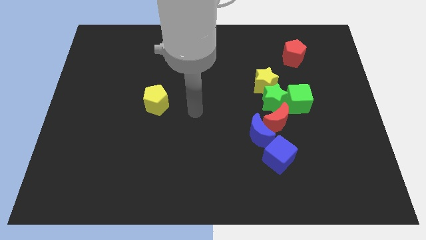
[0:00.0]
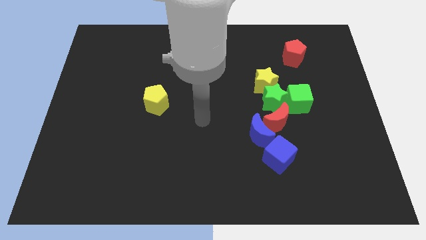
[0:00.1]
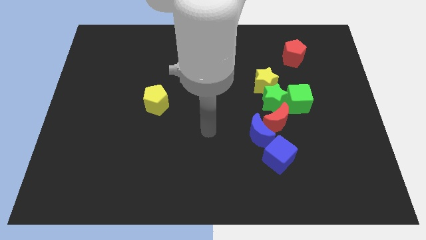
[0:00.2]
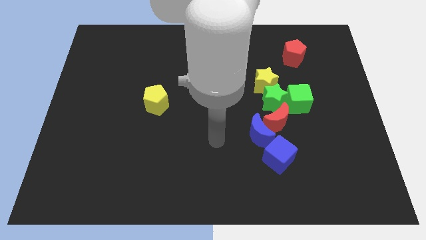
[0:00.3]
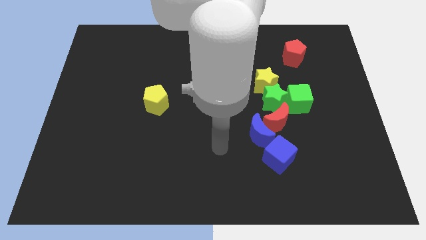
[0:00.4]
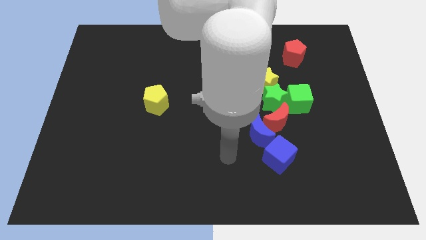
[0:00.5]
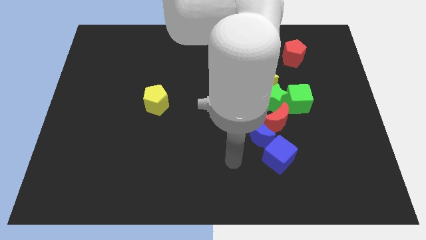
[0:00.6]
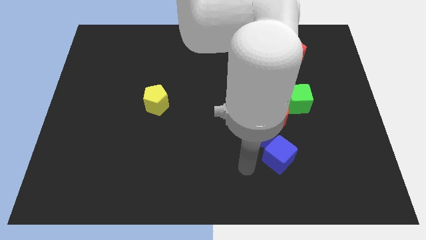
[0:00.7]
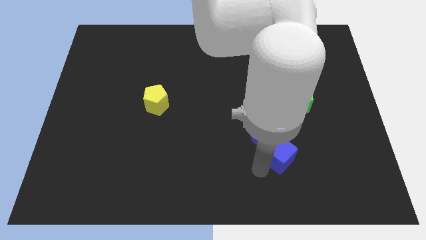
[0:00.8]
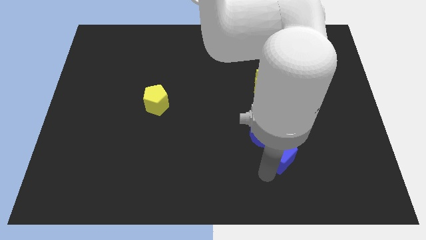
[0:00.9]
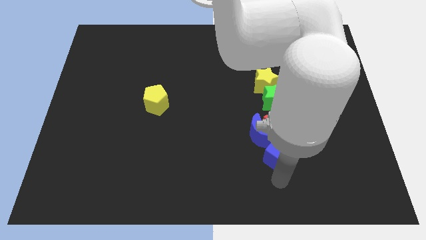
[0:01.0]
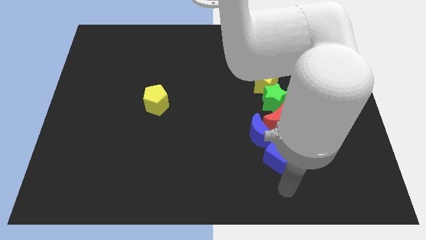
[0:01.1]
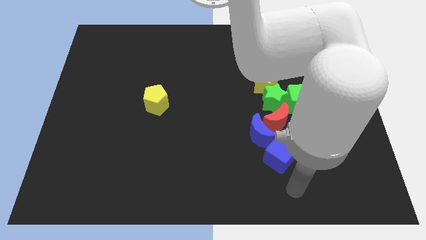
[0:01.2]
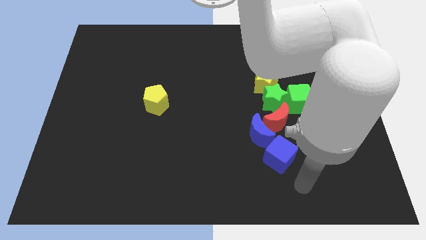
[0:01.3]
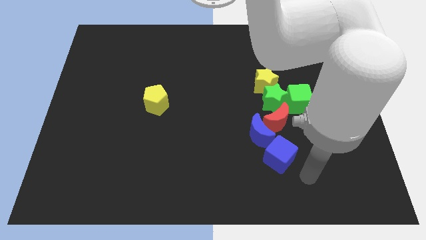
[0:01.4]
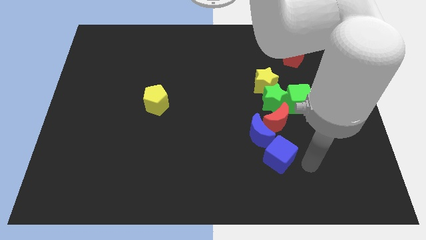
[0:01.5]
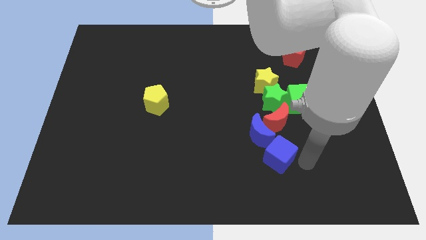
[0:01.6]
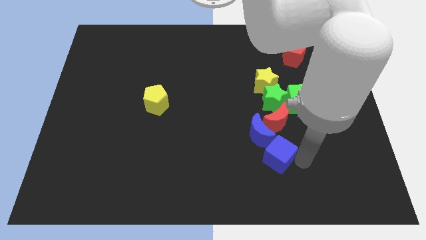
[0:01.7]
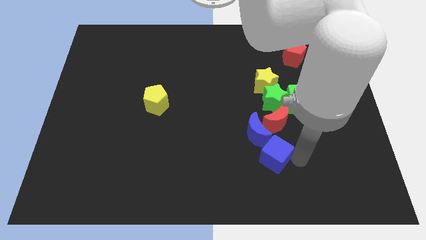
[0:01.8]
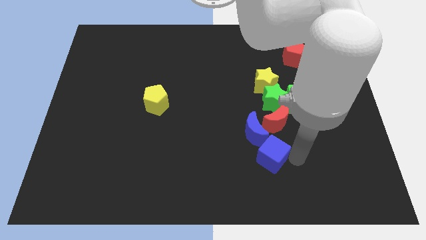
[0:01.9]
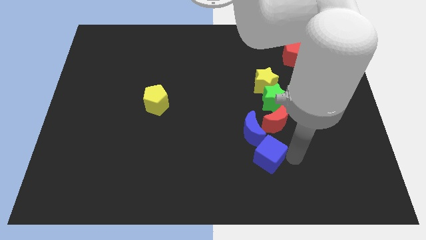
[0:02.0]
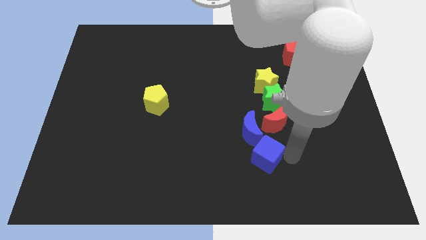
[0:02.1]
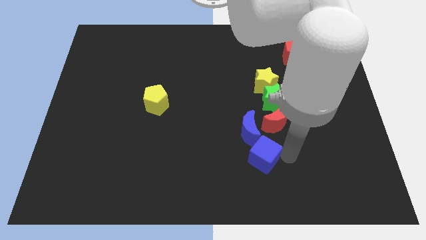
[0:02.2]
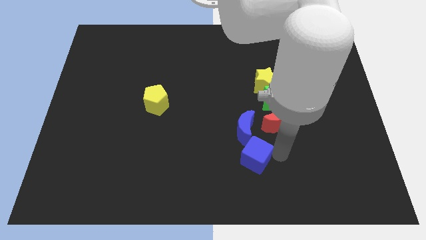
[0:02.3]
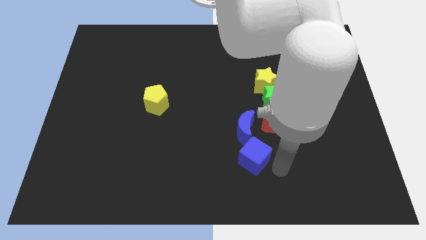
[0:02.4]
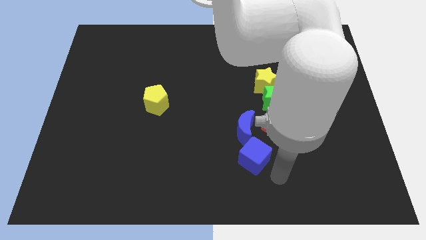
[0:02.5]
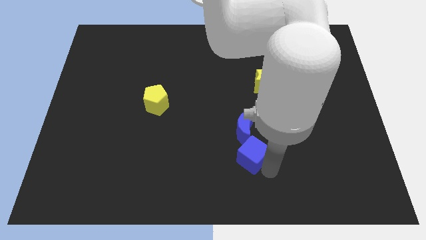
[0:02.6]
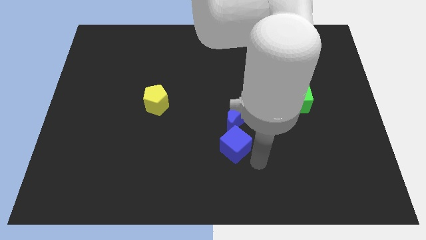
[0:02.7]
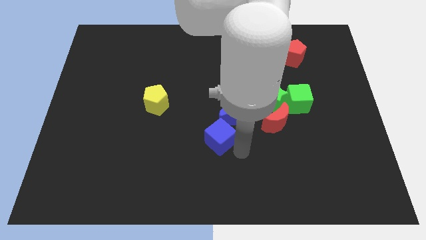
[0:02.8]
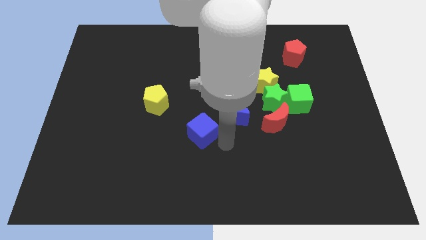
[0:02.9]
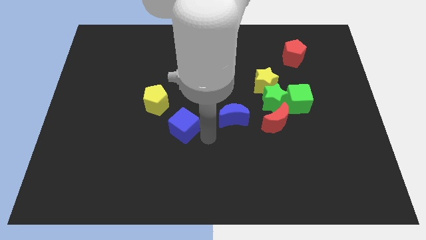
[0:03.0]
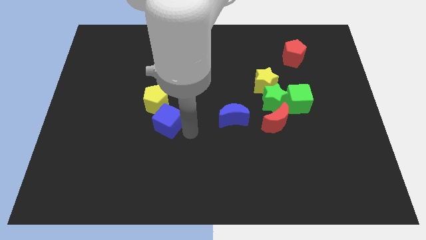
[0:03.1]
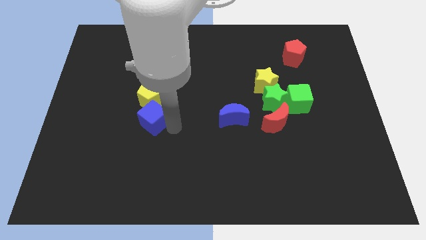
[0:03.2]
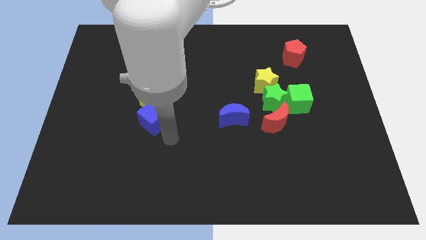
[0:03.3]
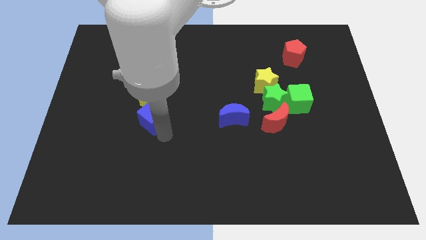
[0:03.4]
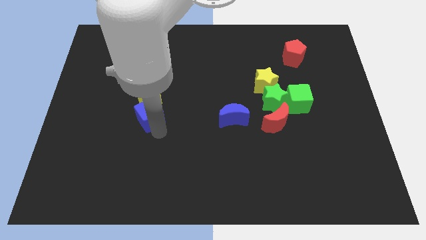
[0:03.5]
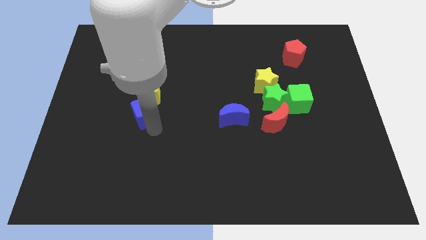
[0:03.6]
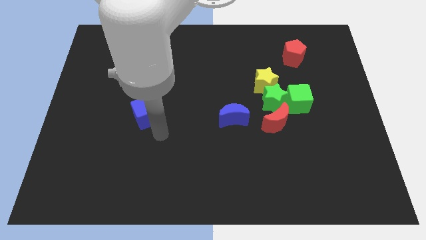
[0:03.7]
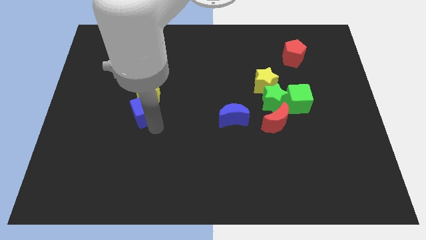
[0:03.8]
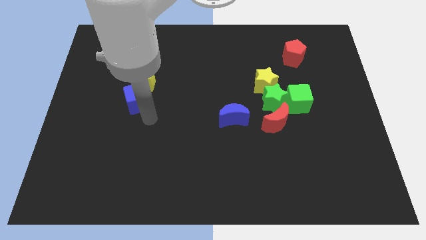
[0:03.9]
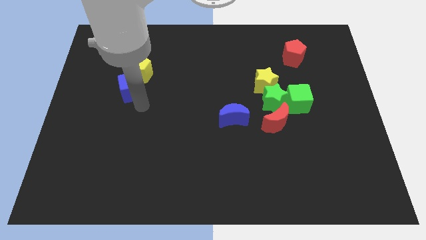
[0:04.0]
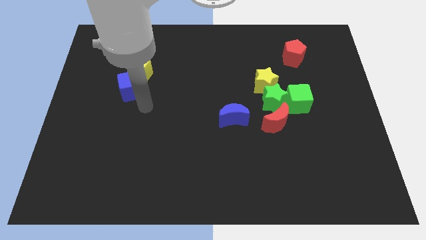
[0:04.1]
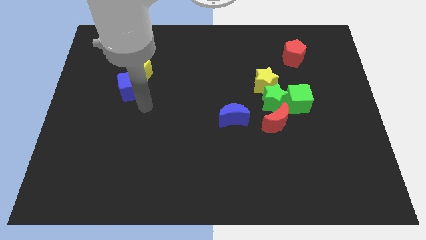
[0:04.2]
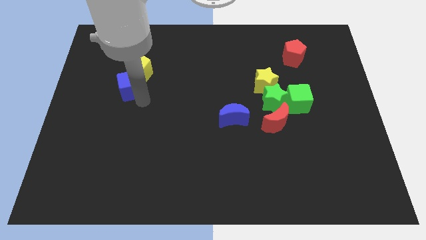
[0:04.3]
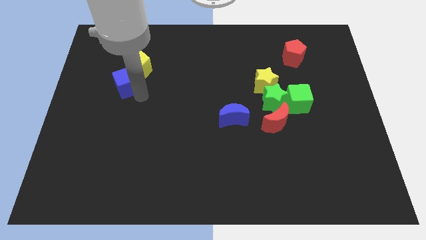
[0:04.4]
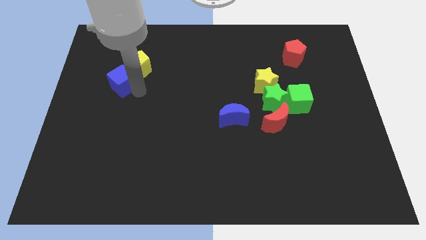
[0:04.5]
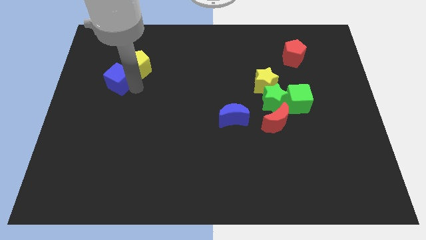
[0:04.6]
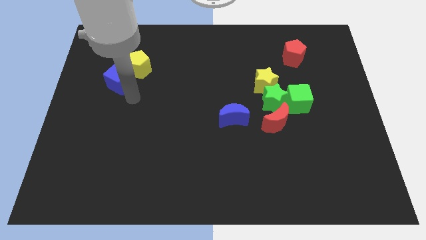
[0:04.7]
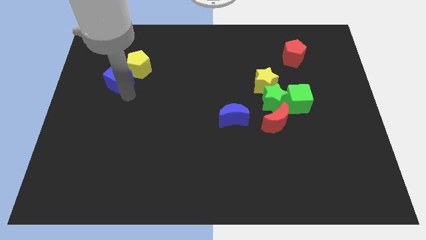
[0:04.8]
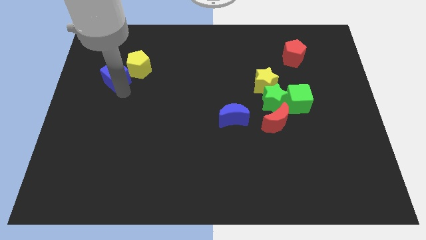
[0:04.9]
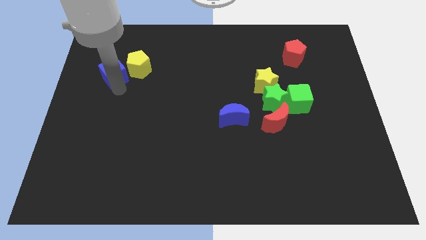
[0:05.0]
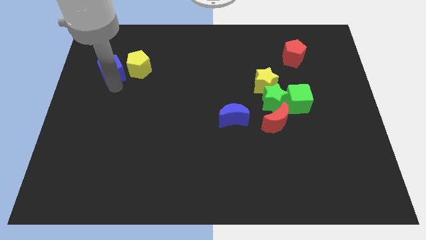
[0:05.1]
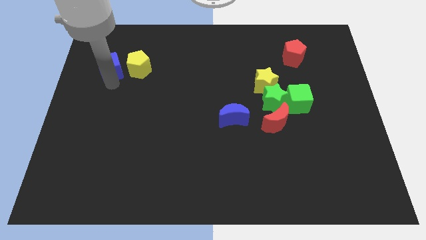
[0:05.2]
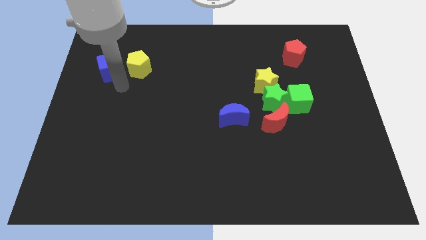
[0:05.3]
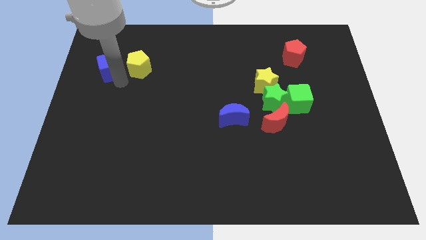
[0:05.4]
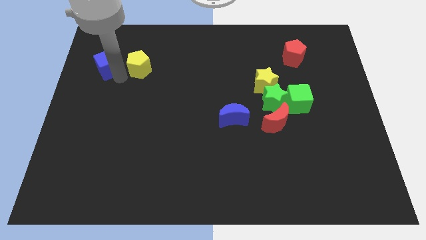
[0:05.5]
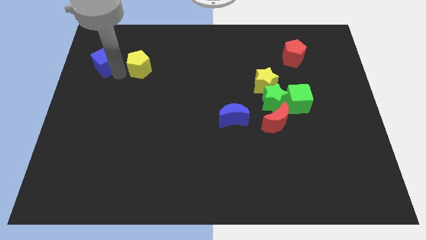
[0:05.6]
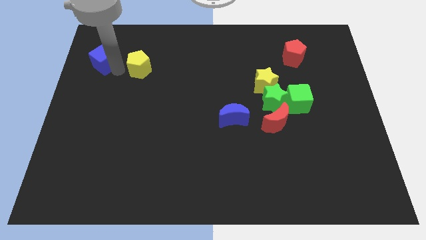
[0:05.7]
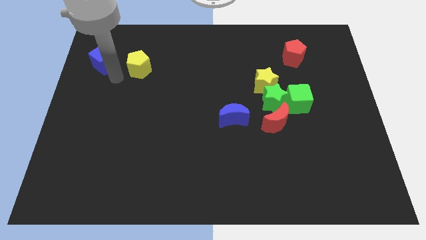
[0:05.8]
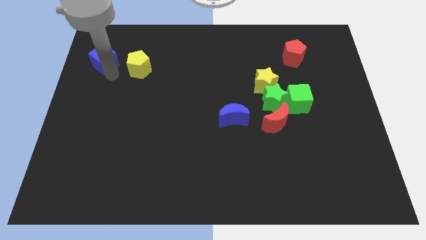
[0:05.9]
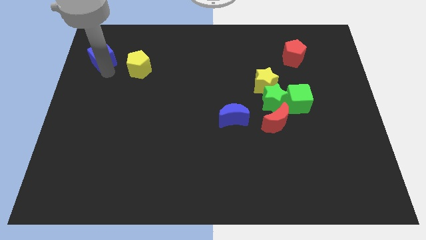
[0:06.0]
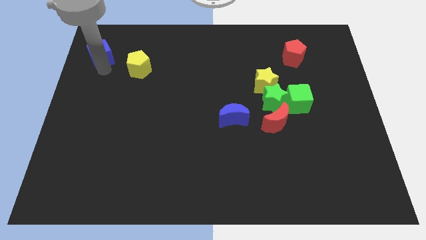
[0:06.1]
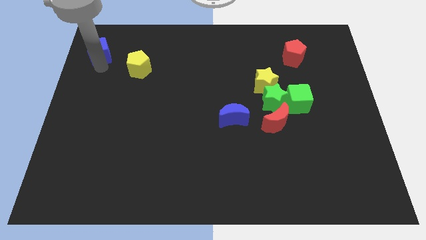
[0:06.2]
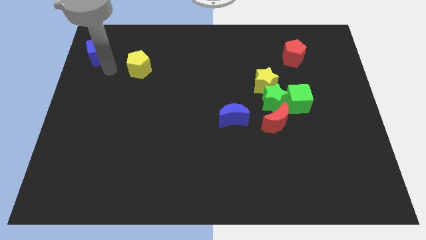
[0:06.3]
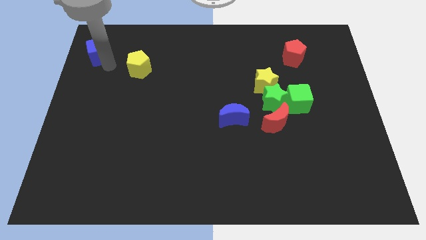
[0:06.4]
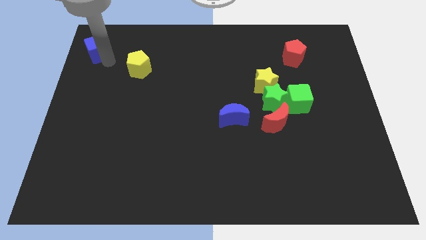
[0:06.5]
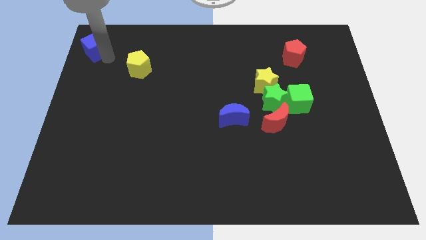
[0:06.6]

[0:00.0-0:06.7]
slide the blue cube to the top left corner
